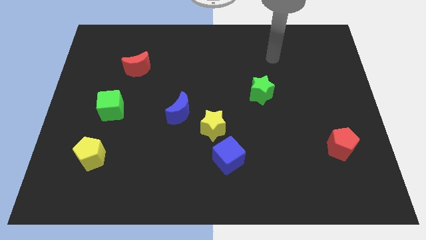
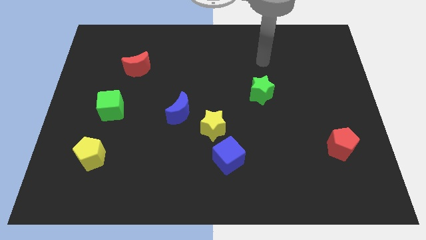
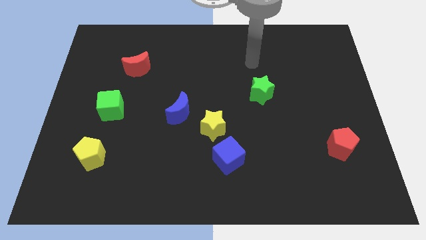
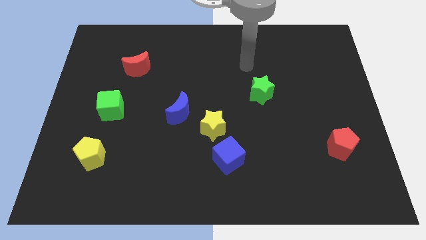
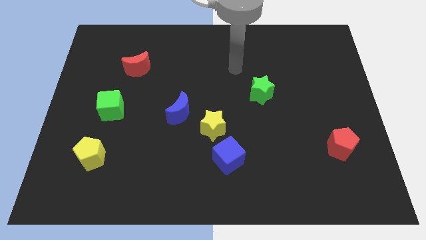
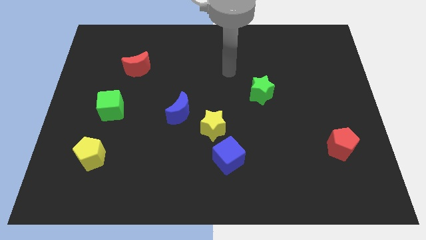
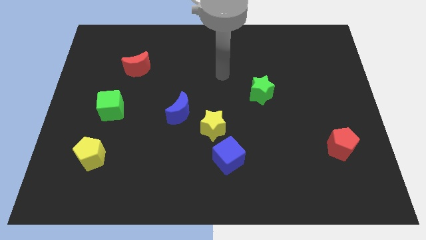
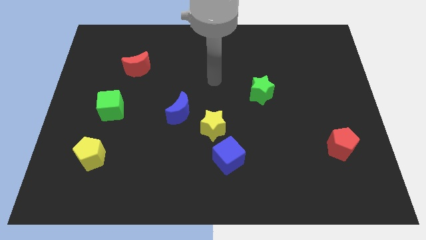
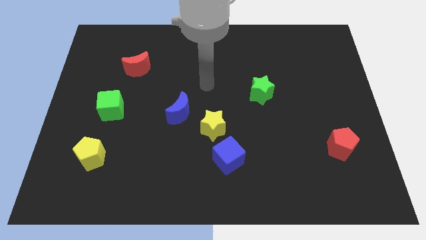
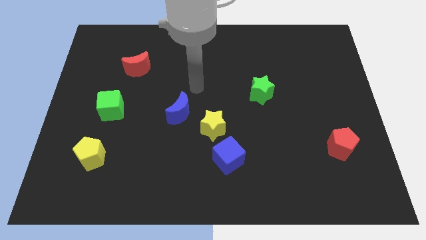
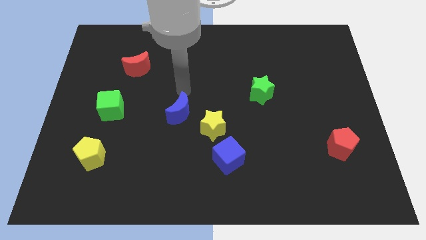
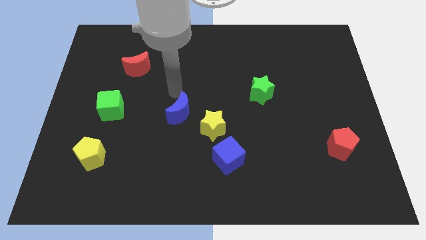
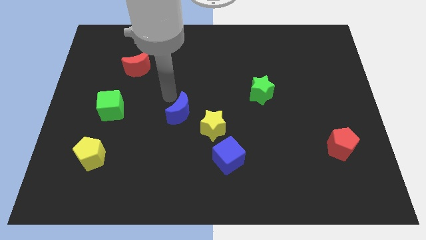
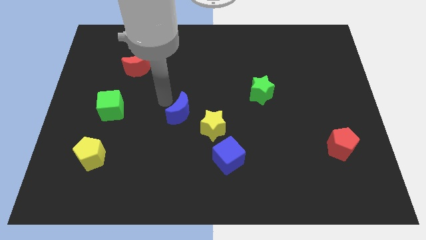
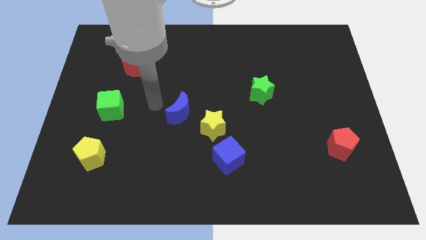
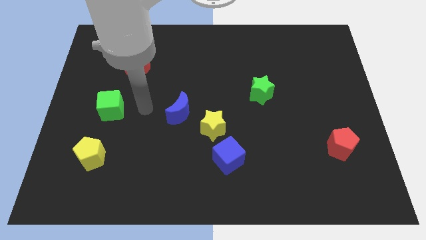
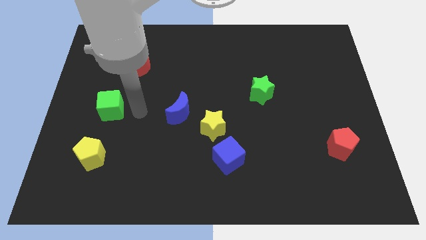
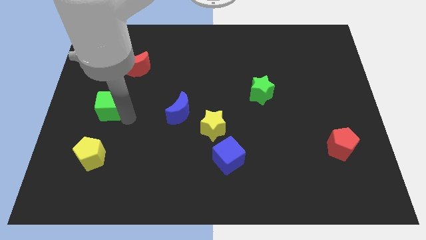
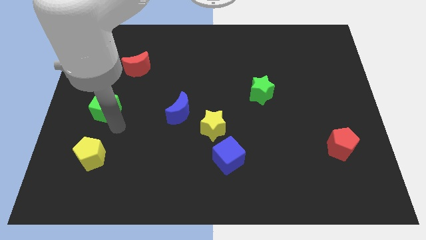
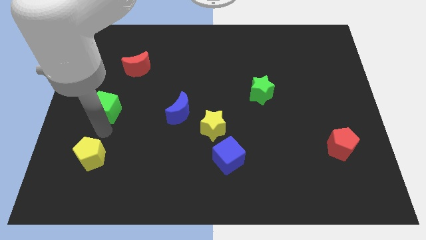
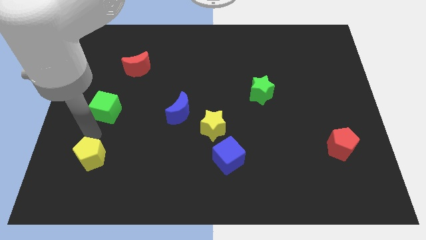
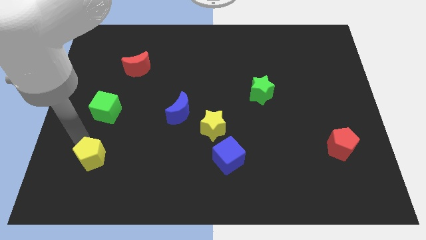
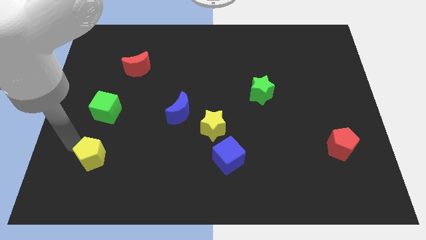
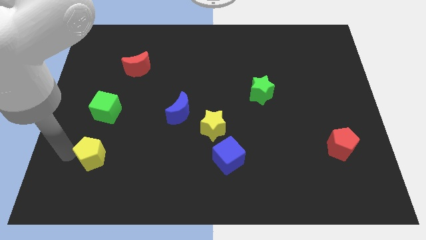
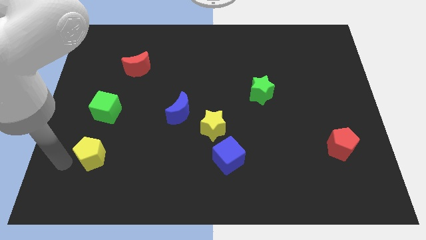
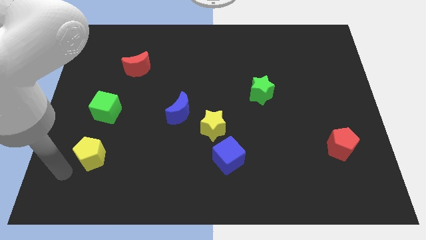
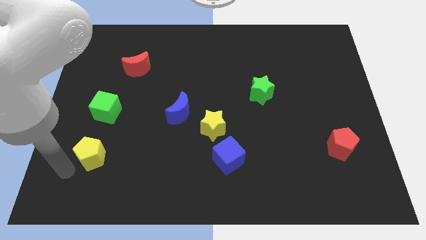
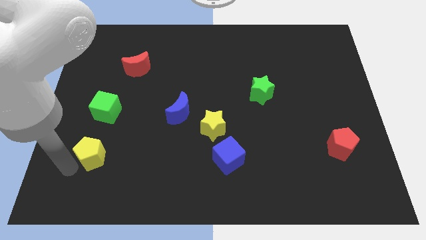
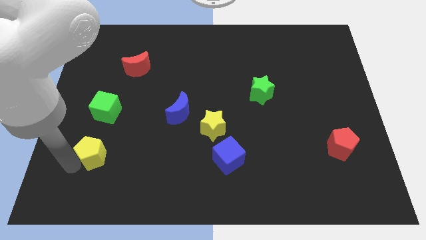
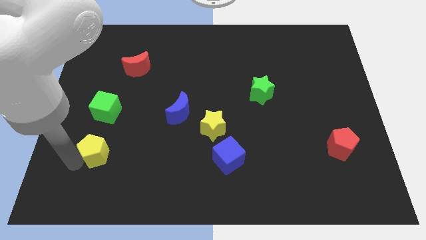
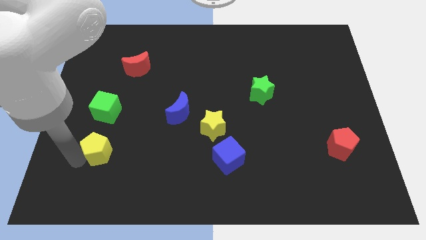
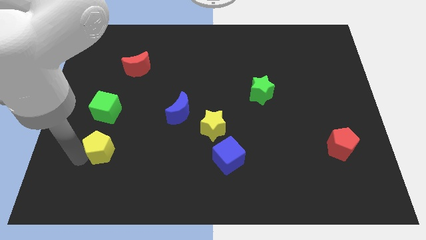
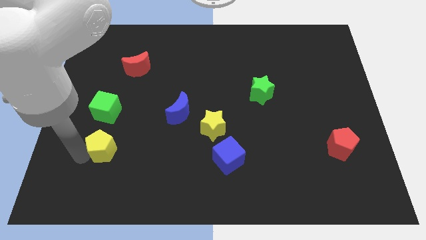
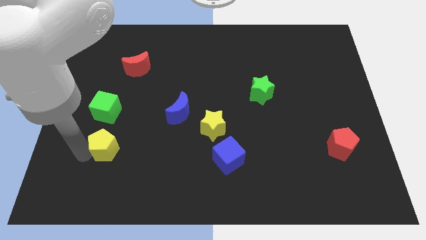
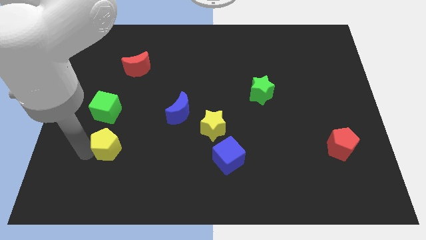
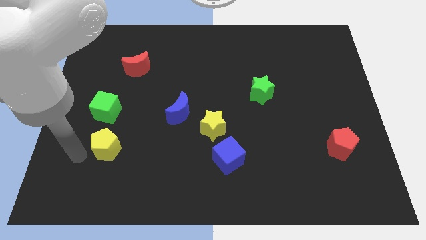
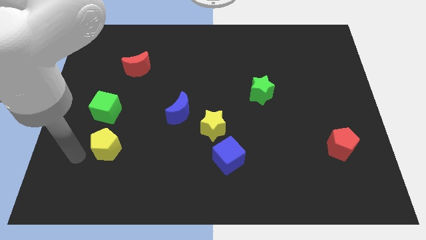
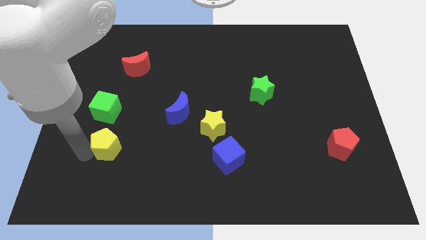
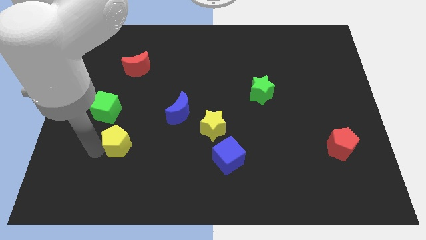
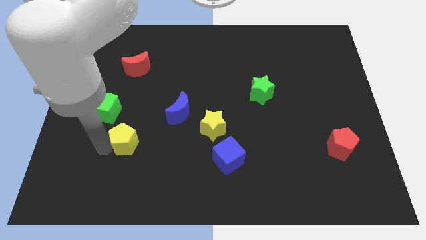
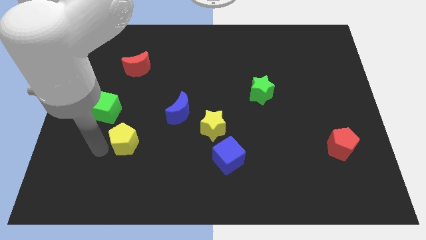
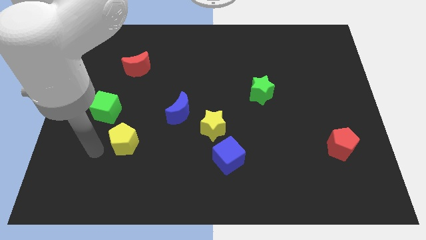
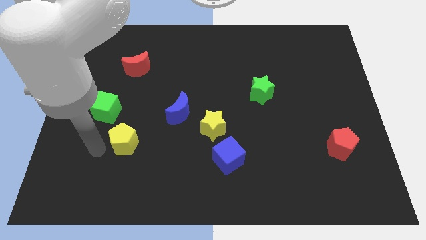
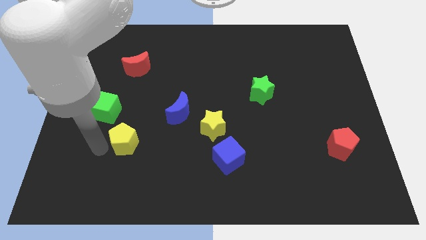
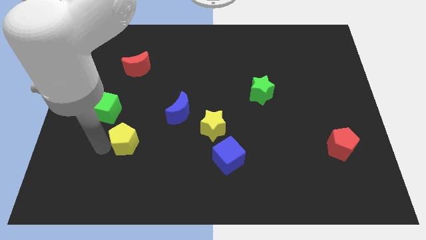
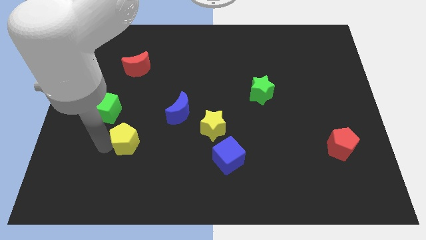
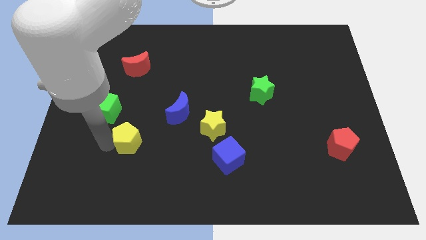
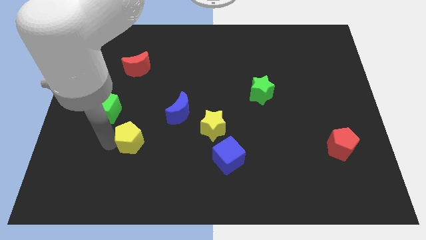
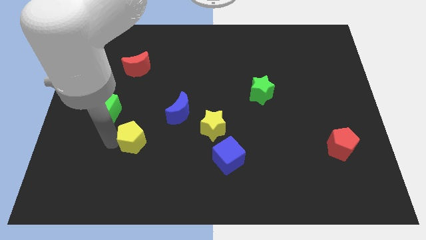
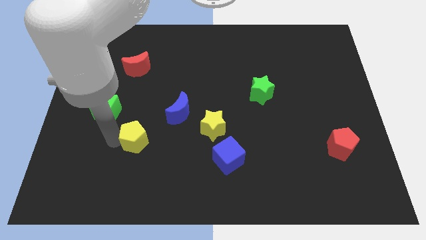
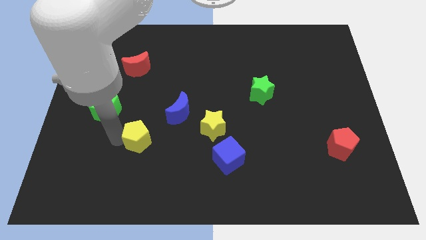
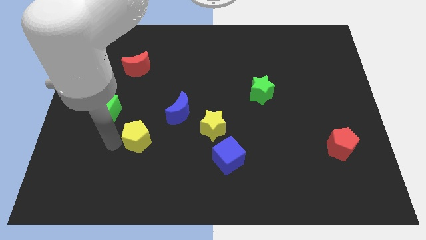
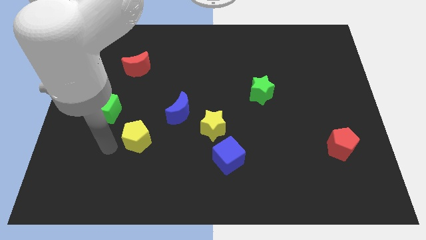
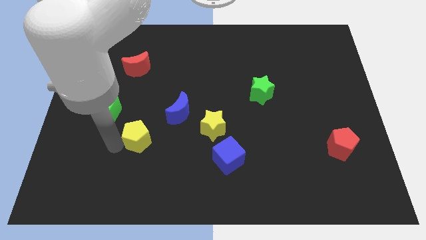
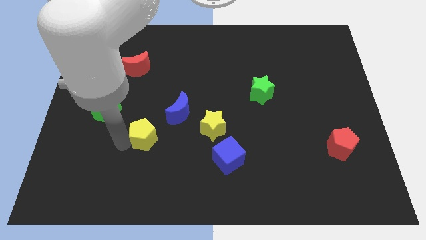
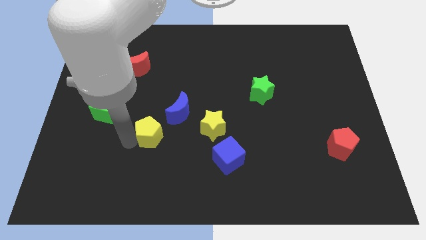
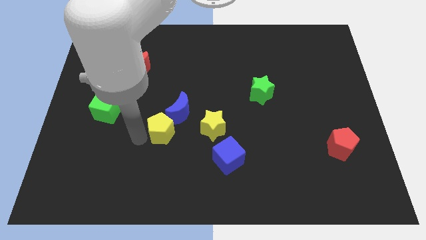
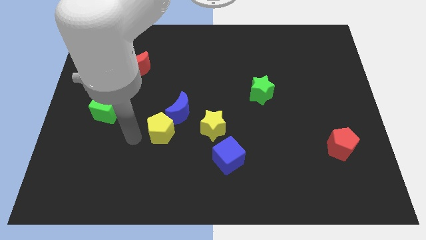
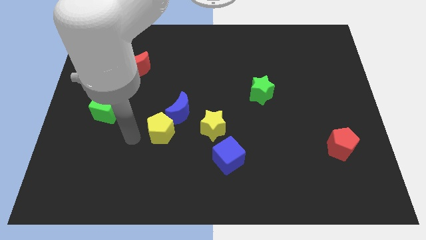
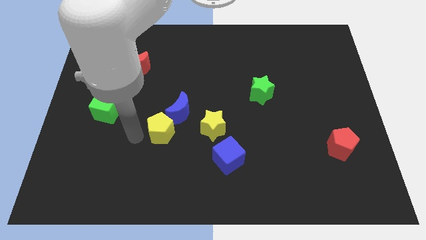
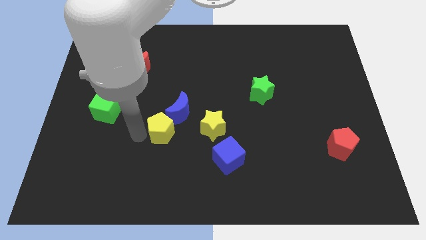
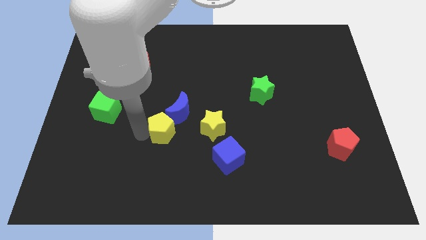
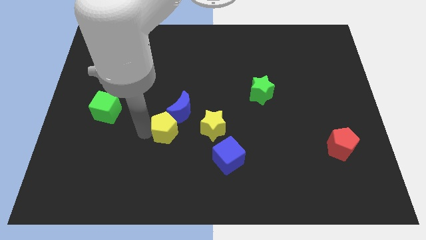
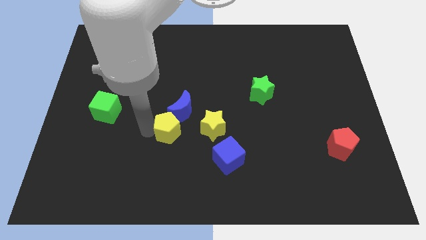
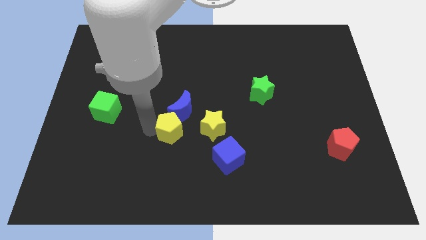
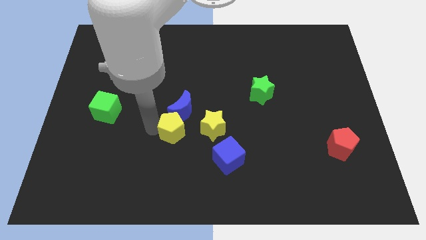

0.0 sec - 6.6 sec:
slide the yellow pentagon to the middle of the board
